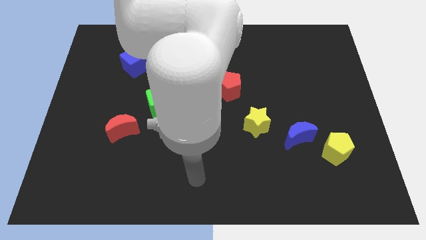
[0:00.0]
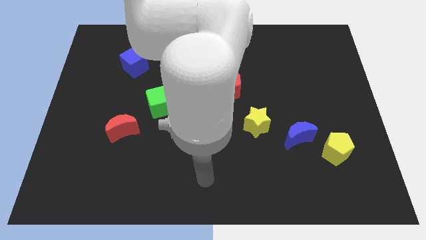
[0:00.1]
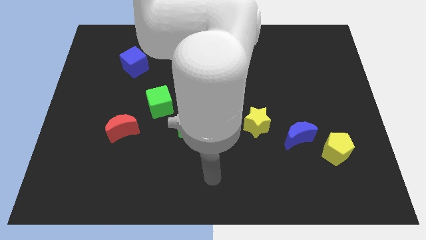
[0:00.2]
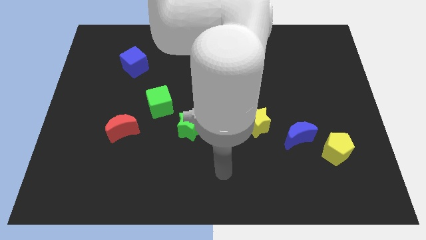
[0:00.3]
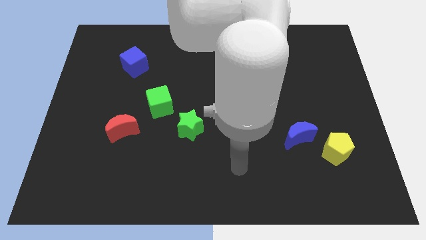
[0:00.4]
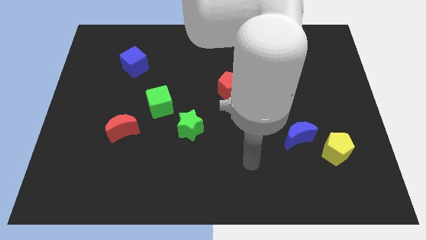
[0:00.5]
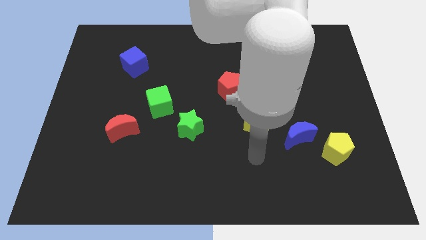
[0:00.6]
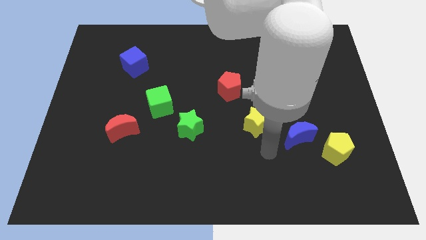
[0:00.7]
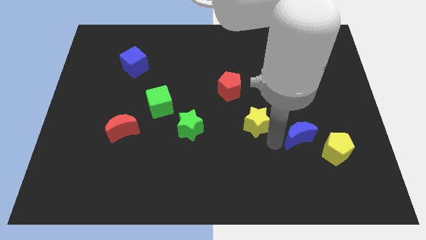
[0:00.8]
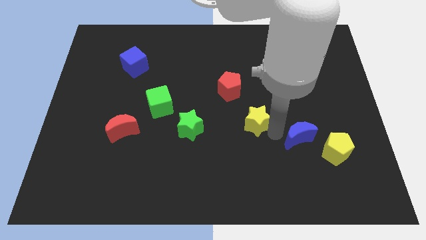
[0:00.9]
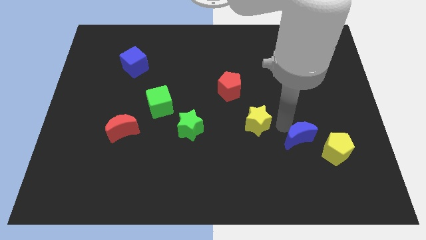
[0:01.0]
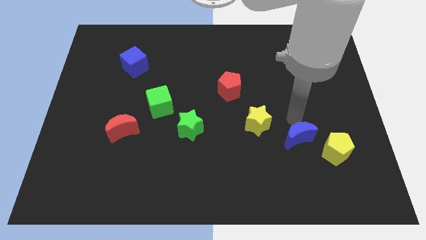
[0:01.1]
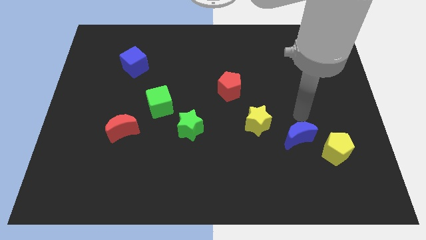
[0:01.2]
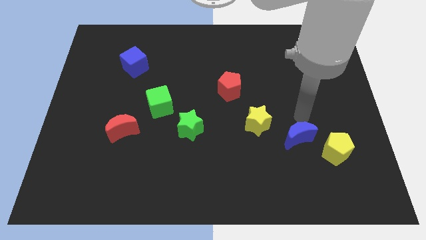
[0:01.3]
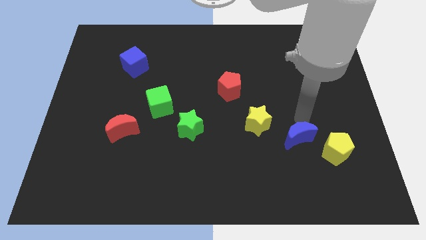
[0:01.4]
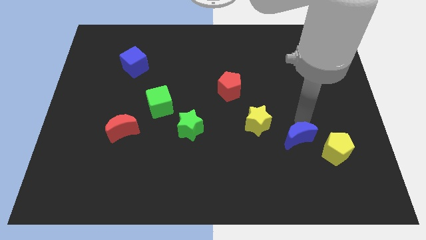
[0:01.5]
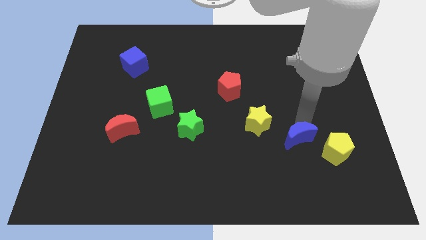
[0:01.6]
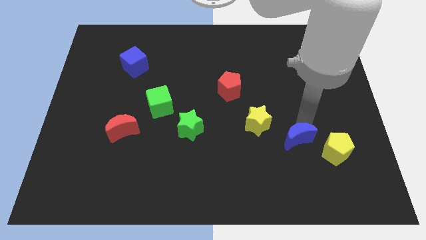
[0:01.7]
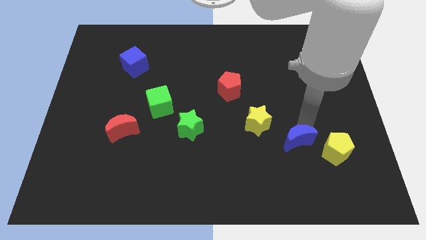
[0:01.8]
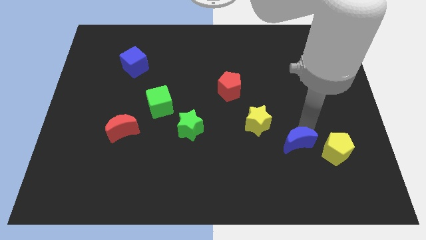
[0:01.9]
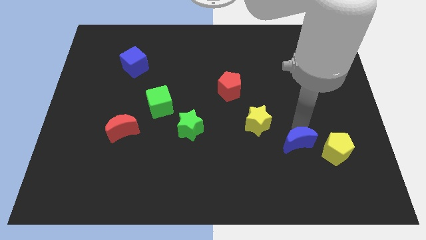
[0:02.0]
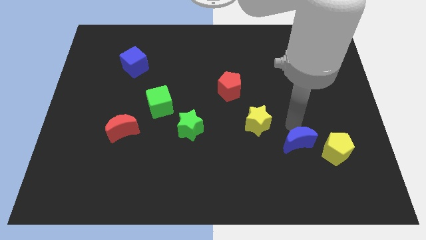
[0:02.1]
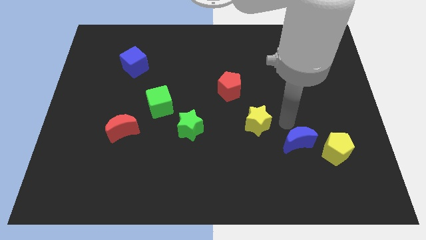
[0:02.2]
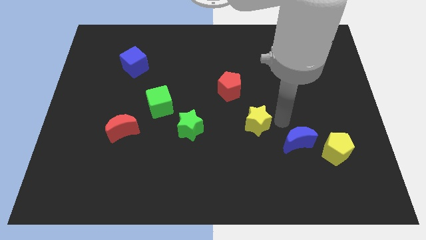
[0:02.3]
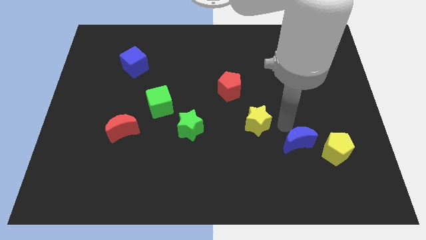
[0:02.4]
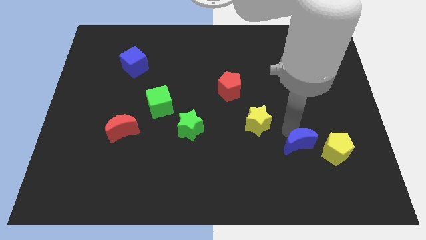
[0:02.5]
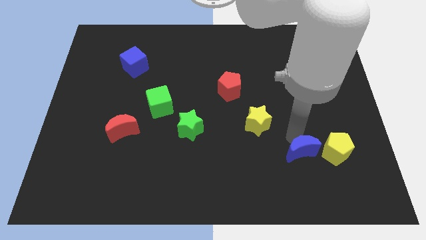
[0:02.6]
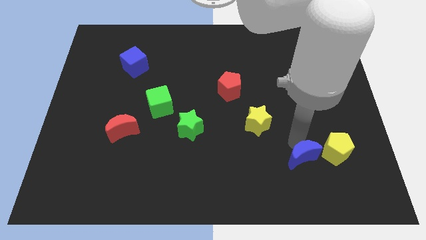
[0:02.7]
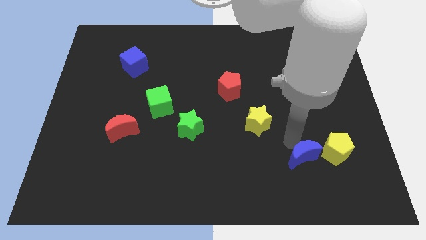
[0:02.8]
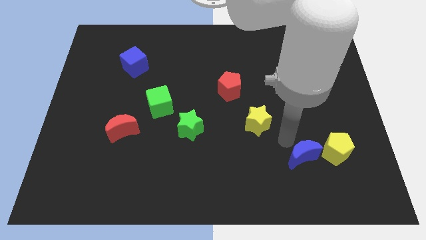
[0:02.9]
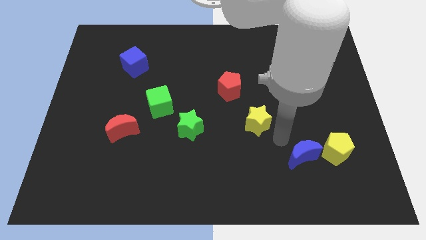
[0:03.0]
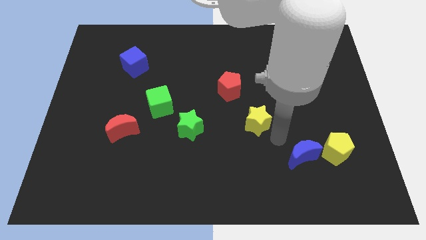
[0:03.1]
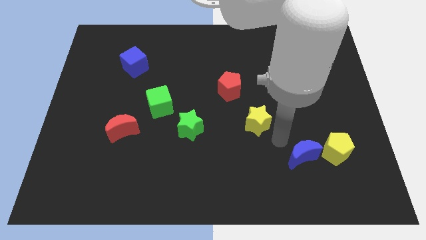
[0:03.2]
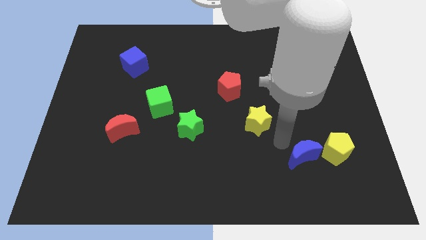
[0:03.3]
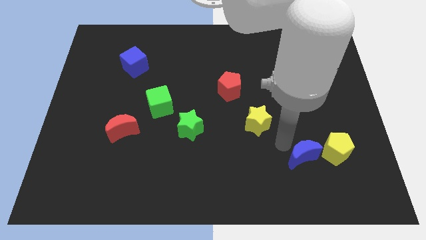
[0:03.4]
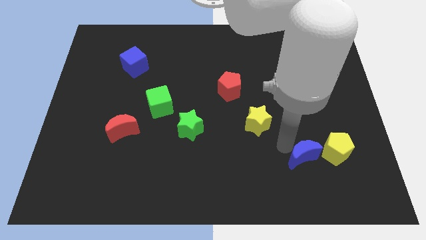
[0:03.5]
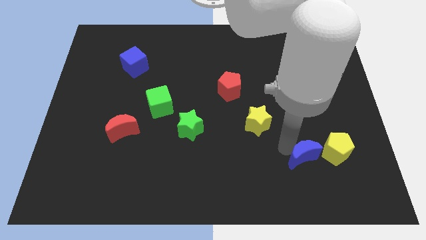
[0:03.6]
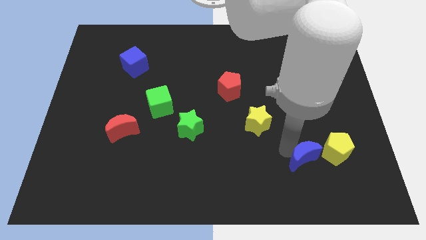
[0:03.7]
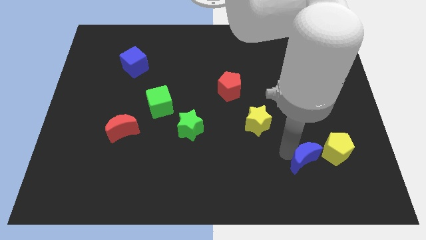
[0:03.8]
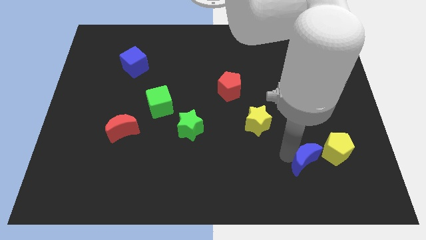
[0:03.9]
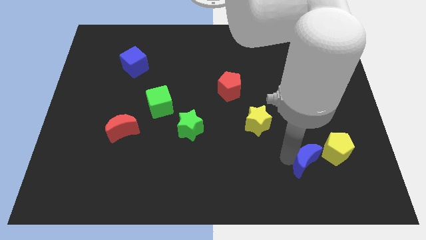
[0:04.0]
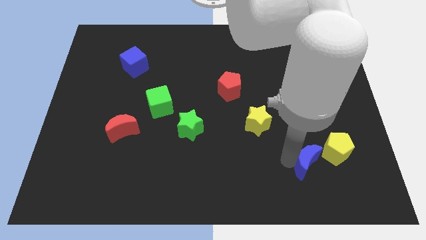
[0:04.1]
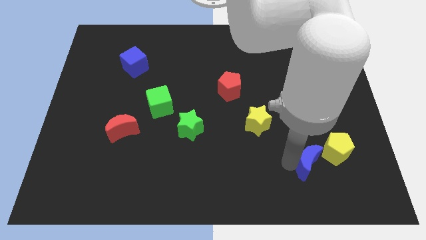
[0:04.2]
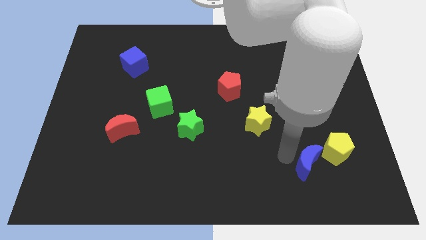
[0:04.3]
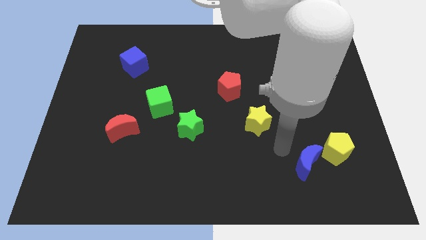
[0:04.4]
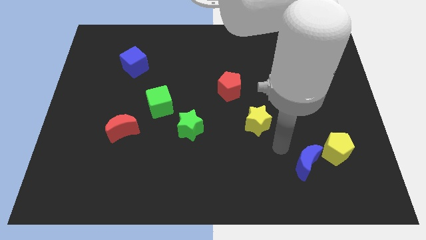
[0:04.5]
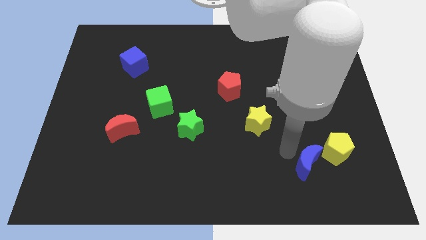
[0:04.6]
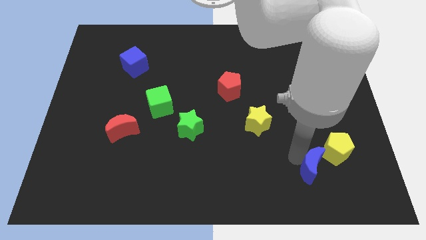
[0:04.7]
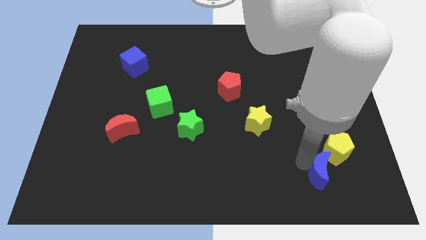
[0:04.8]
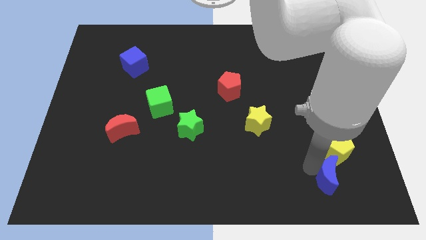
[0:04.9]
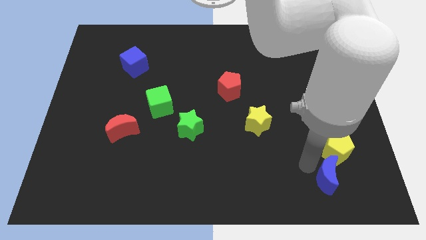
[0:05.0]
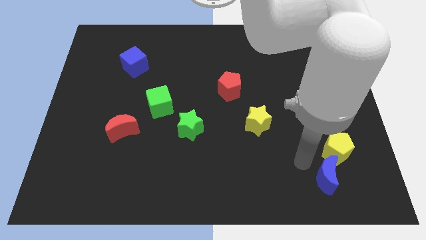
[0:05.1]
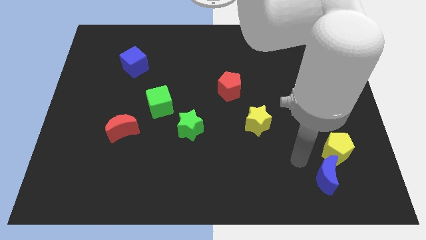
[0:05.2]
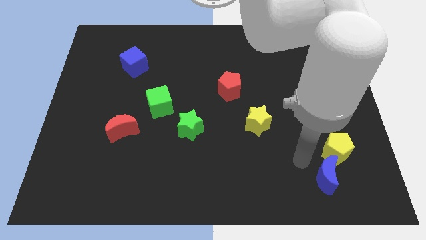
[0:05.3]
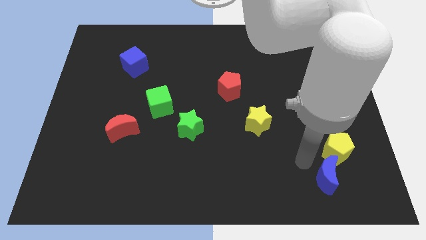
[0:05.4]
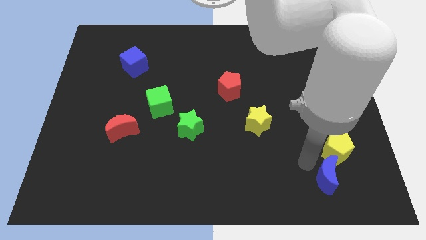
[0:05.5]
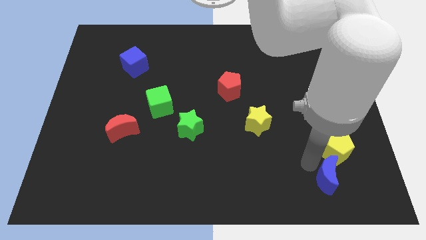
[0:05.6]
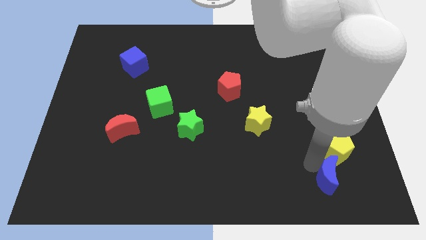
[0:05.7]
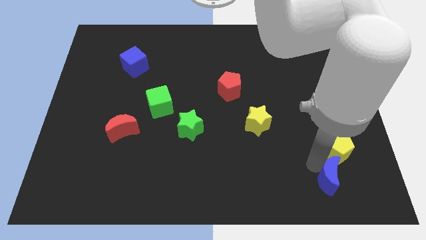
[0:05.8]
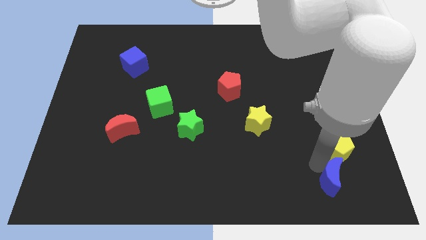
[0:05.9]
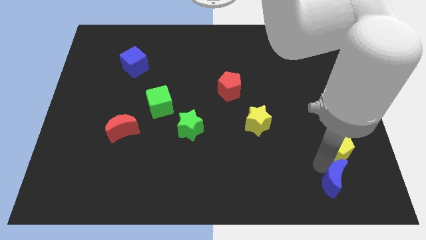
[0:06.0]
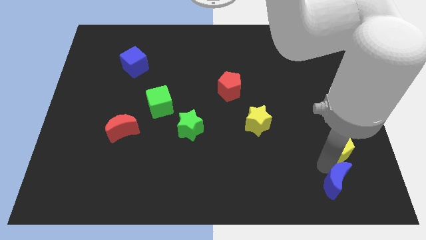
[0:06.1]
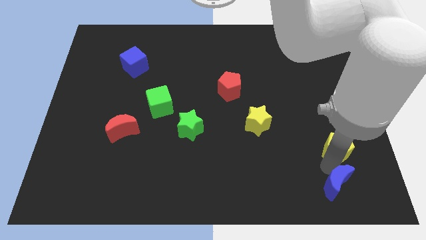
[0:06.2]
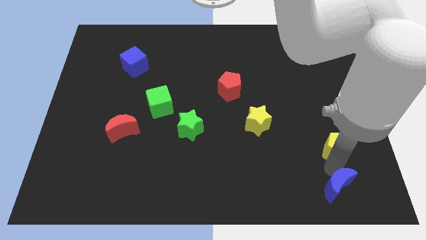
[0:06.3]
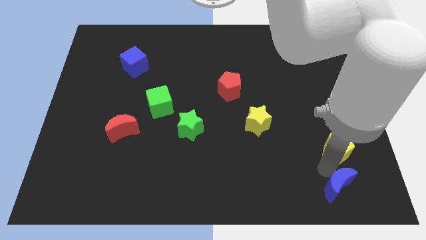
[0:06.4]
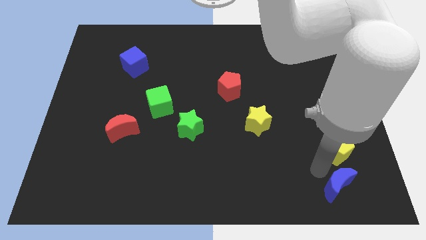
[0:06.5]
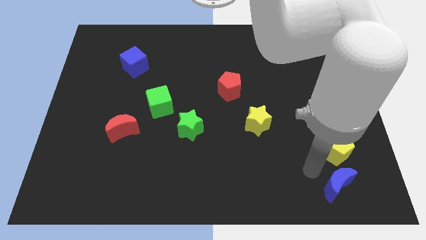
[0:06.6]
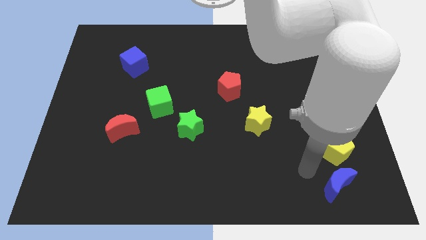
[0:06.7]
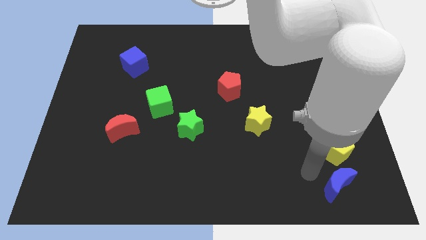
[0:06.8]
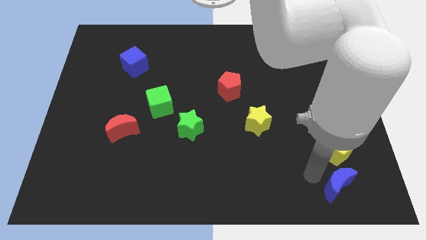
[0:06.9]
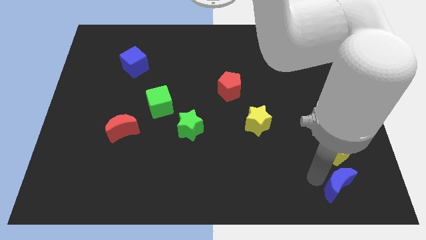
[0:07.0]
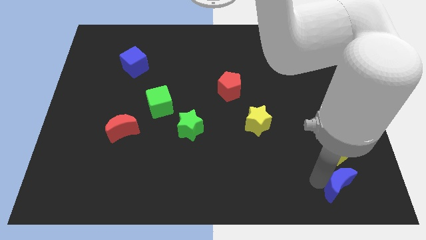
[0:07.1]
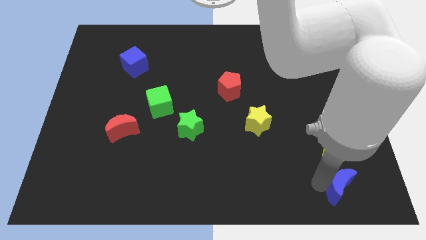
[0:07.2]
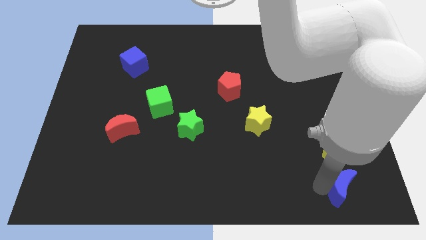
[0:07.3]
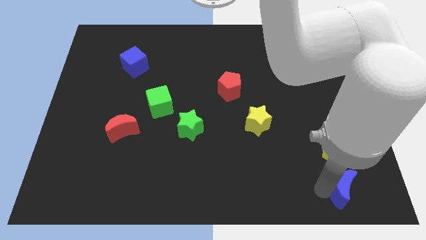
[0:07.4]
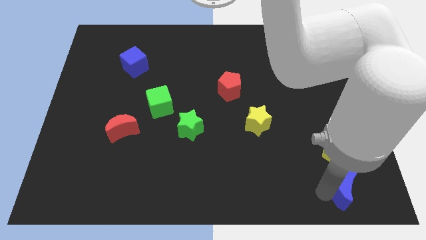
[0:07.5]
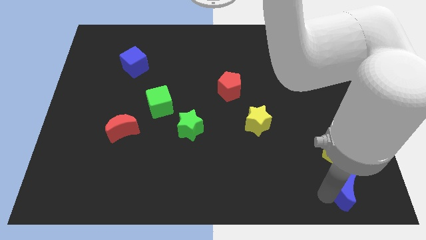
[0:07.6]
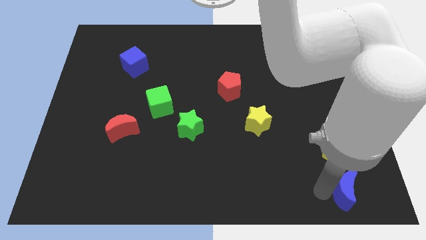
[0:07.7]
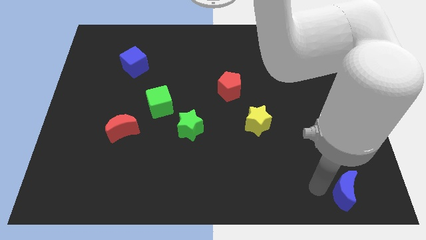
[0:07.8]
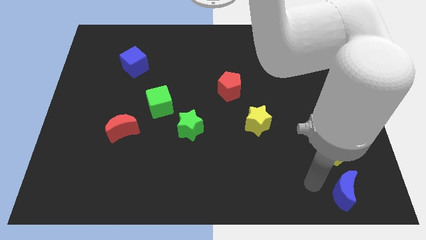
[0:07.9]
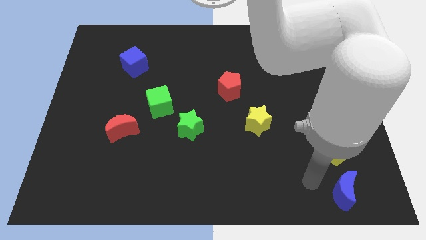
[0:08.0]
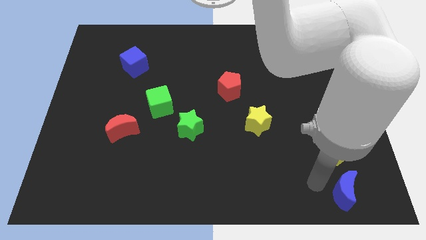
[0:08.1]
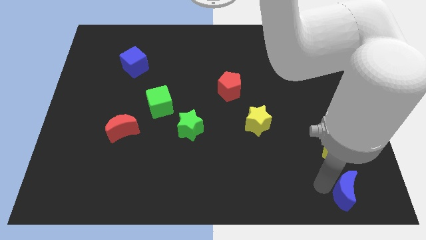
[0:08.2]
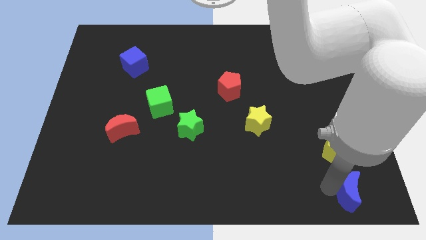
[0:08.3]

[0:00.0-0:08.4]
slide the blue moon to the bottom right corner
